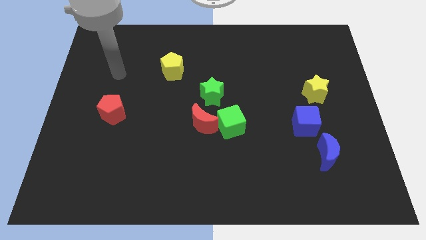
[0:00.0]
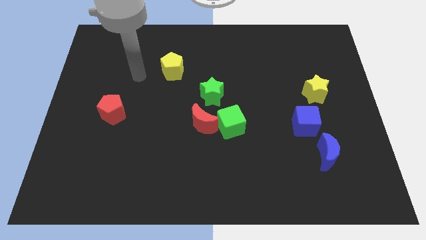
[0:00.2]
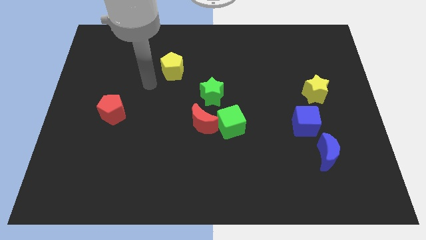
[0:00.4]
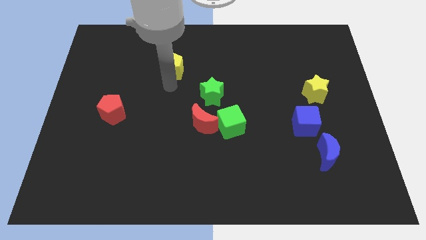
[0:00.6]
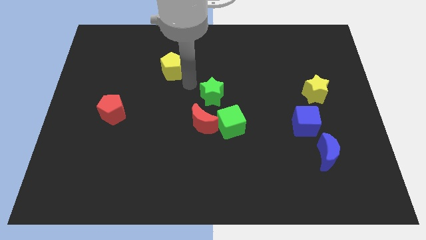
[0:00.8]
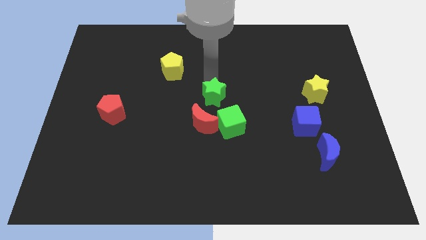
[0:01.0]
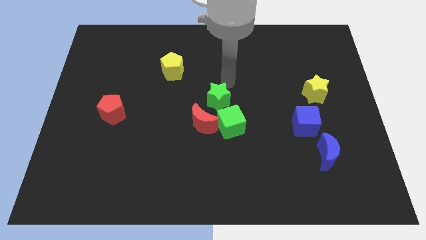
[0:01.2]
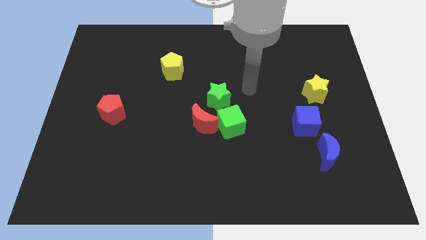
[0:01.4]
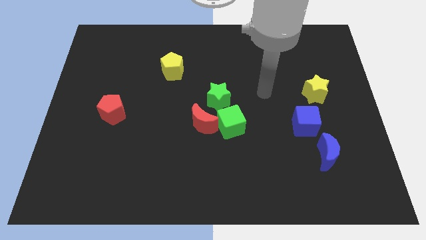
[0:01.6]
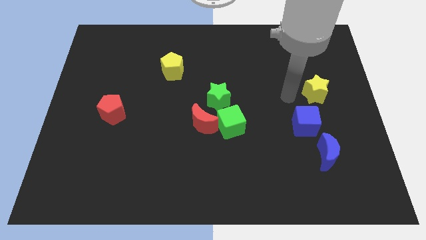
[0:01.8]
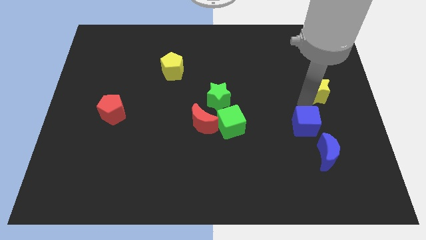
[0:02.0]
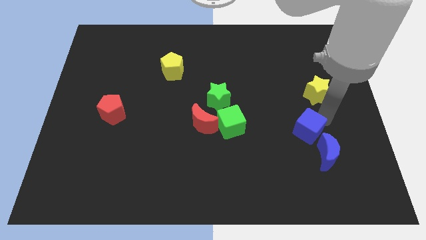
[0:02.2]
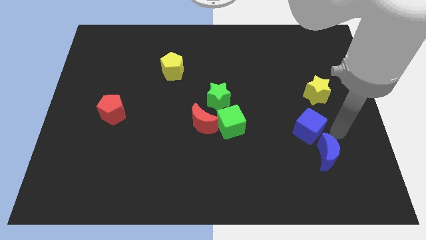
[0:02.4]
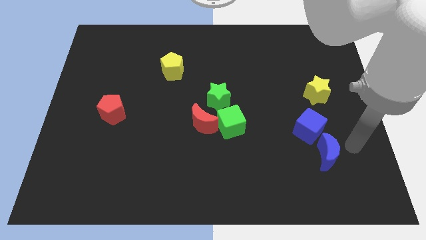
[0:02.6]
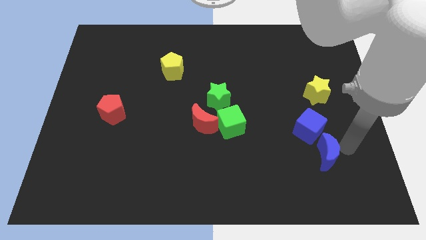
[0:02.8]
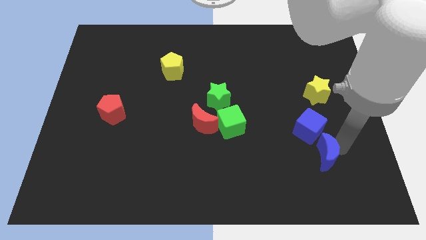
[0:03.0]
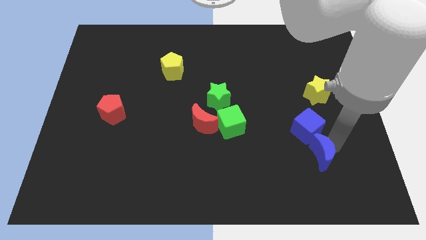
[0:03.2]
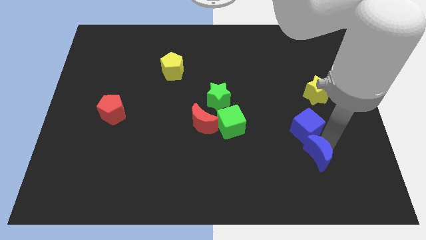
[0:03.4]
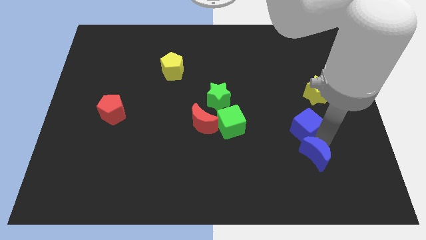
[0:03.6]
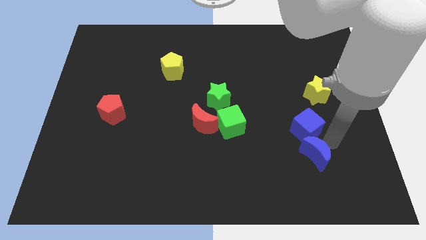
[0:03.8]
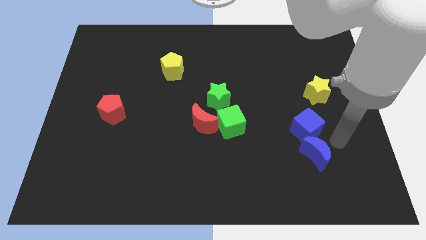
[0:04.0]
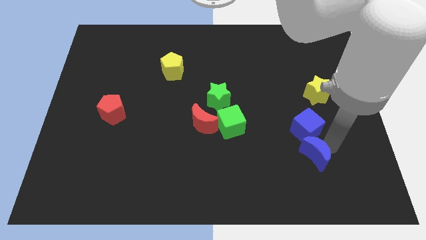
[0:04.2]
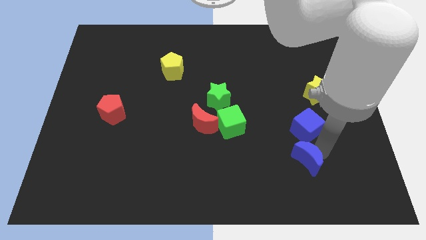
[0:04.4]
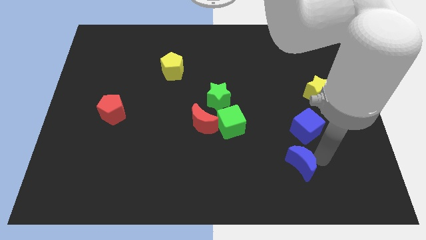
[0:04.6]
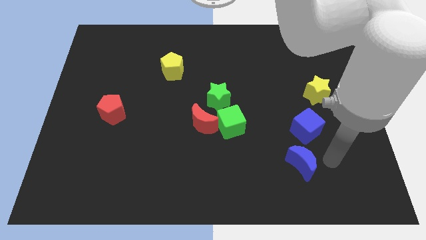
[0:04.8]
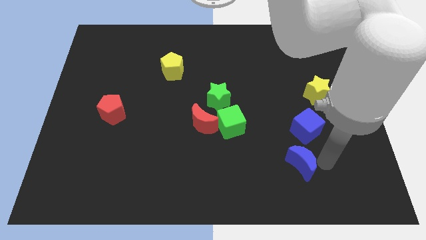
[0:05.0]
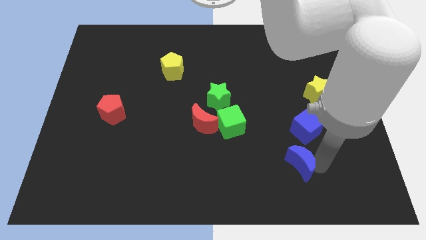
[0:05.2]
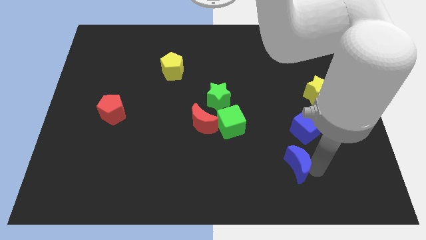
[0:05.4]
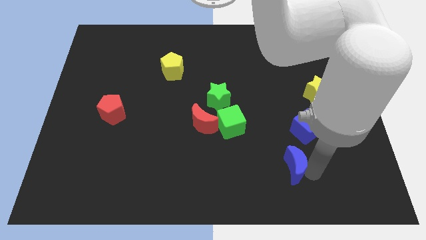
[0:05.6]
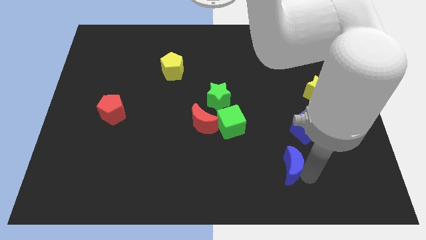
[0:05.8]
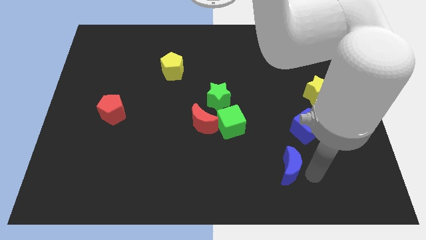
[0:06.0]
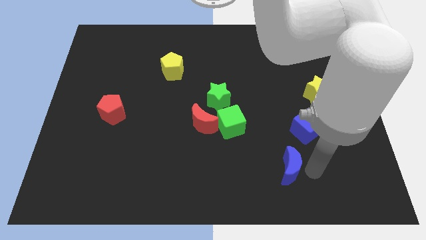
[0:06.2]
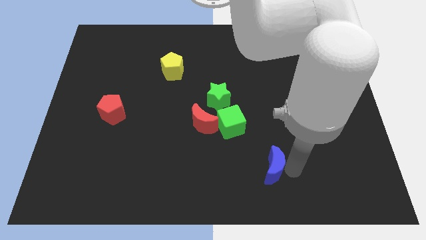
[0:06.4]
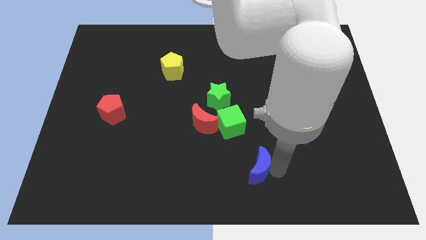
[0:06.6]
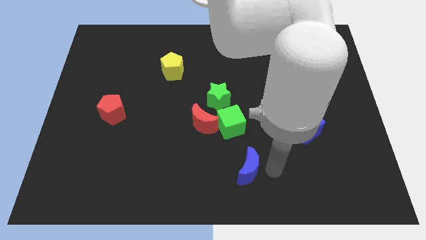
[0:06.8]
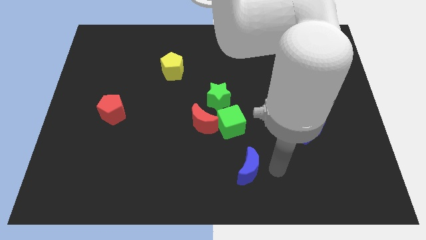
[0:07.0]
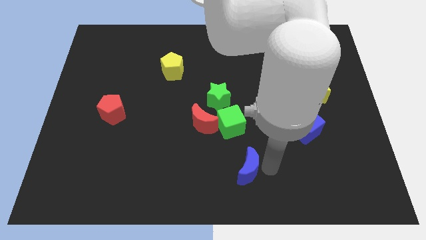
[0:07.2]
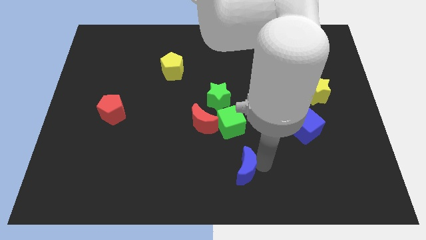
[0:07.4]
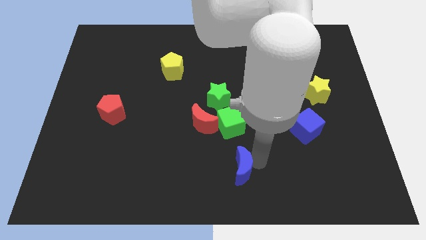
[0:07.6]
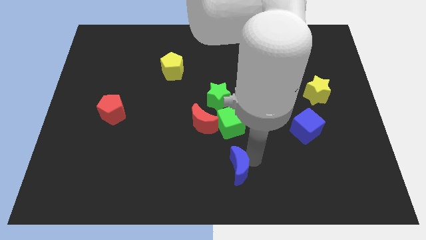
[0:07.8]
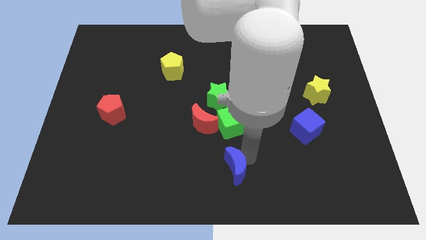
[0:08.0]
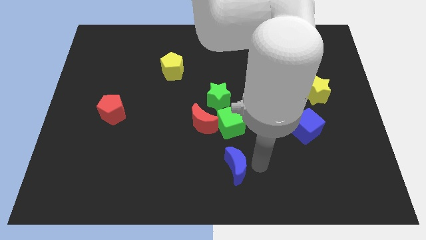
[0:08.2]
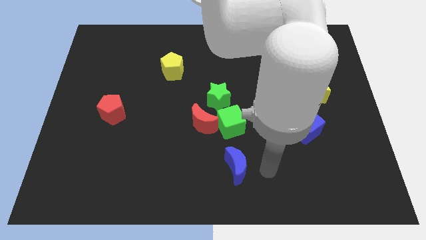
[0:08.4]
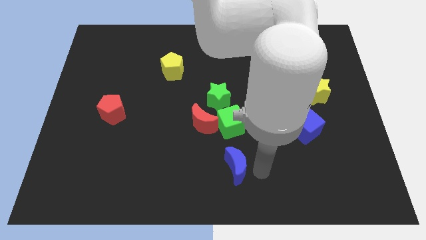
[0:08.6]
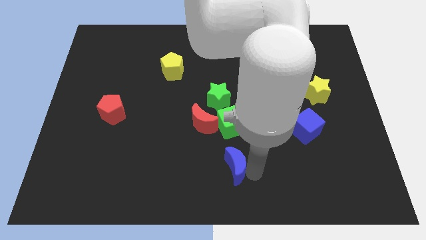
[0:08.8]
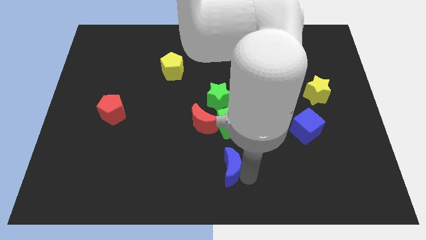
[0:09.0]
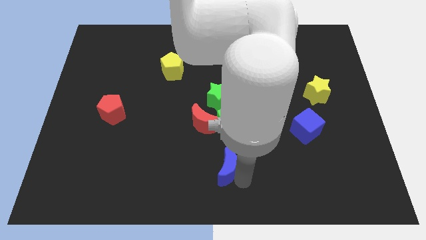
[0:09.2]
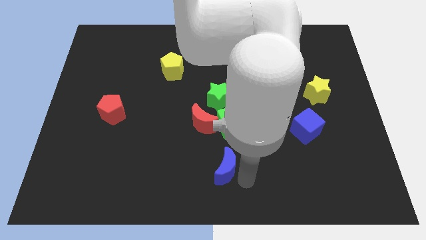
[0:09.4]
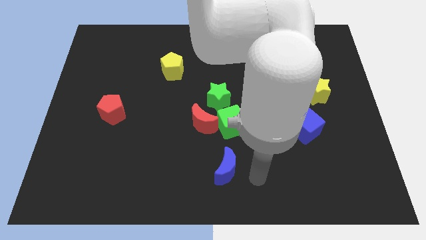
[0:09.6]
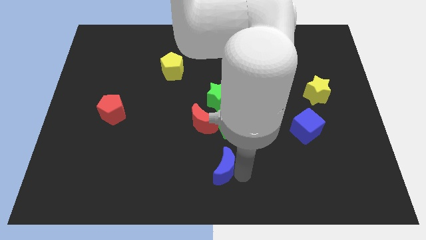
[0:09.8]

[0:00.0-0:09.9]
push the blue moon to the bottom of the red moon

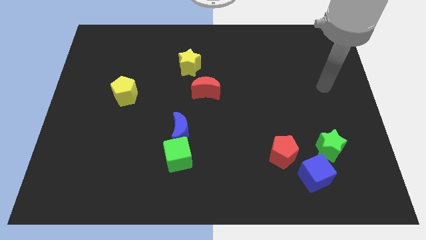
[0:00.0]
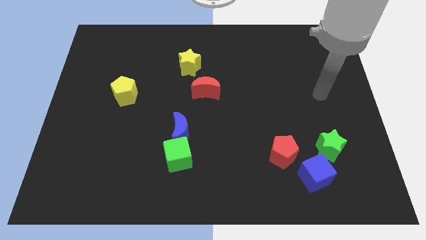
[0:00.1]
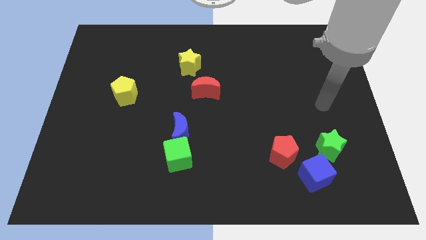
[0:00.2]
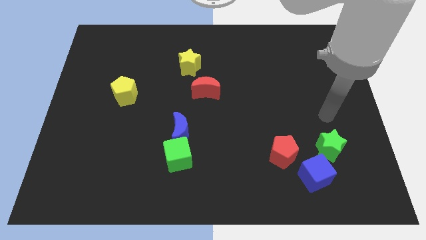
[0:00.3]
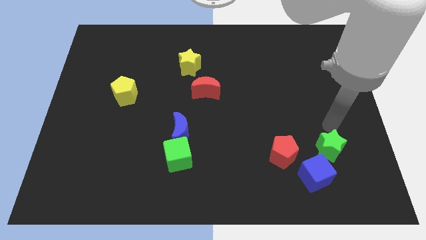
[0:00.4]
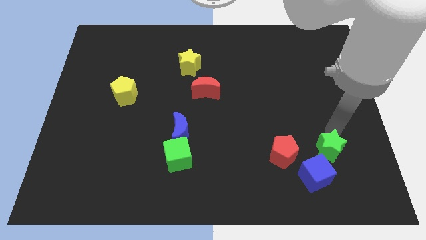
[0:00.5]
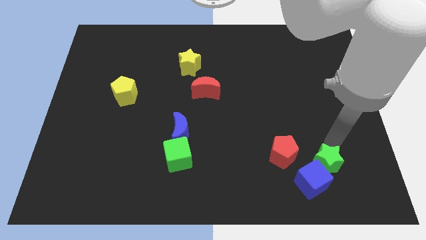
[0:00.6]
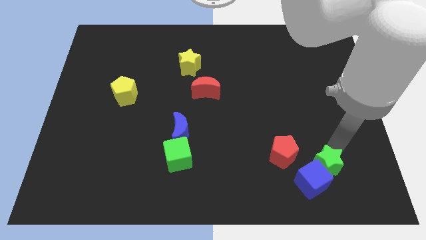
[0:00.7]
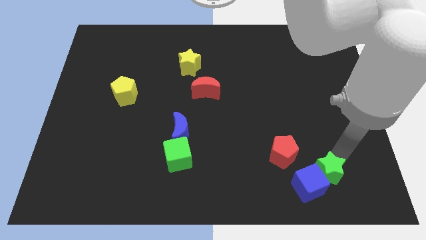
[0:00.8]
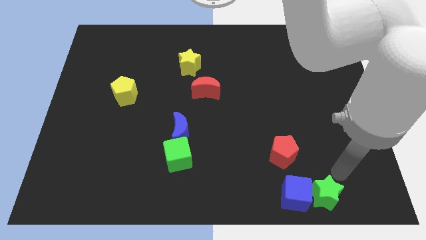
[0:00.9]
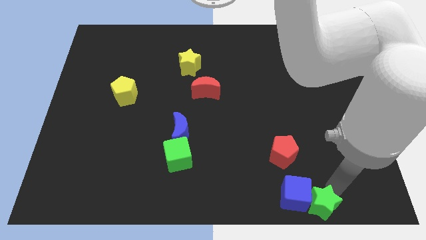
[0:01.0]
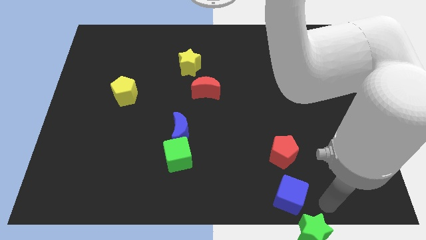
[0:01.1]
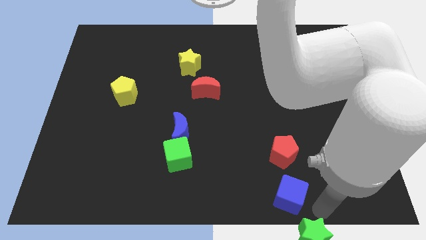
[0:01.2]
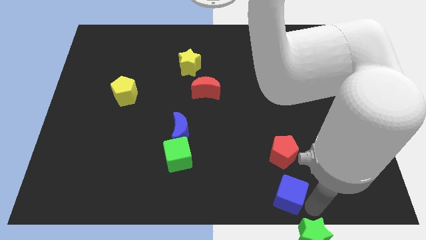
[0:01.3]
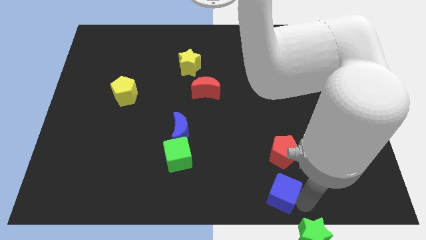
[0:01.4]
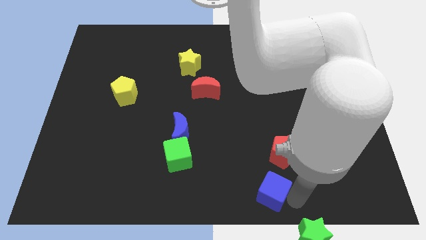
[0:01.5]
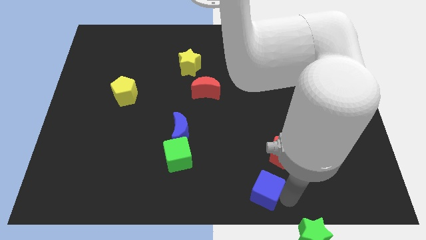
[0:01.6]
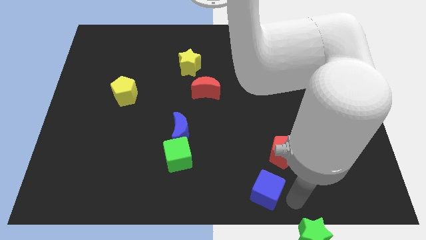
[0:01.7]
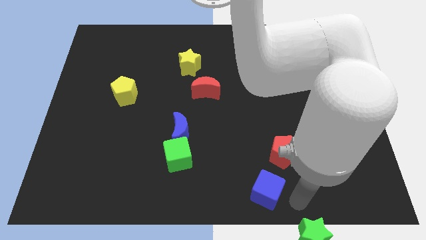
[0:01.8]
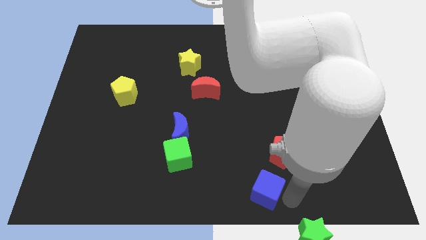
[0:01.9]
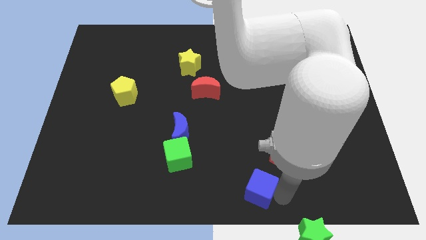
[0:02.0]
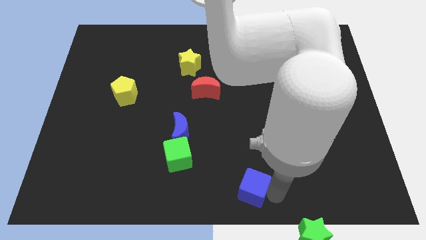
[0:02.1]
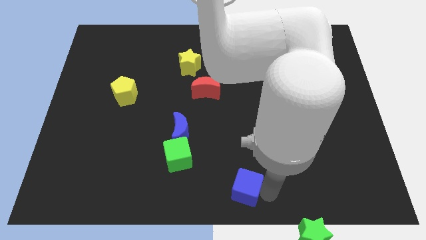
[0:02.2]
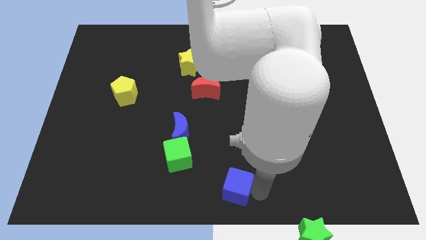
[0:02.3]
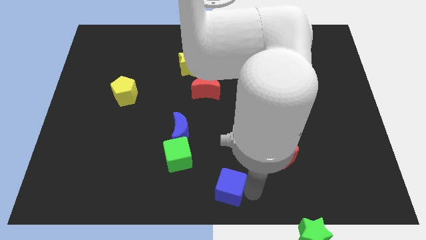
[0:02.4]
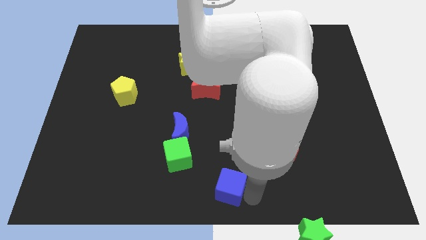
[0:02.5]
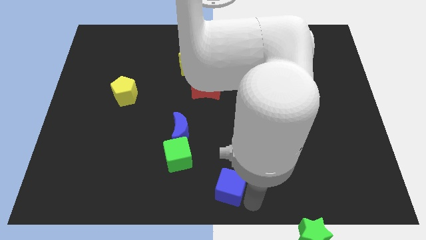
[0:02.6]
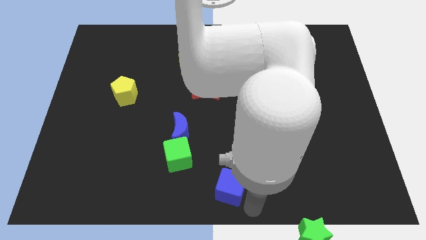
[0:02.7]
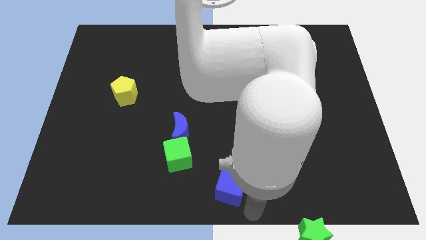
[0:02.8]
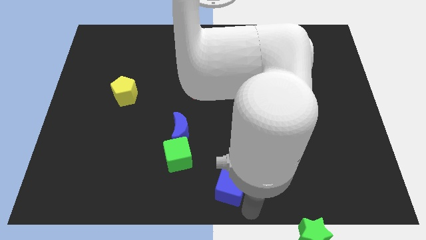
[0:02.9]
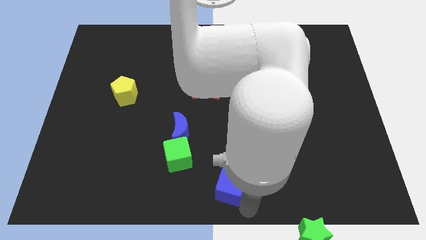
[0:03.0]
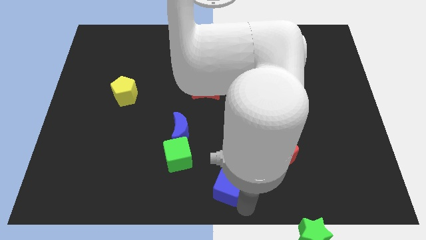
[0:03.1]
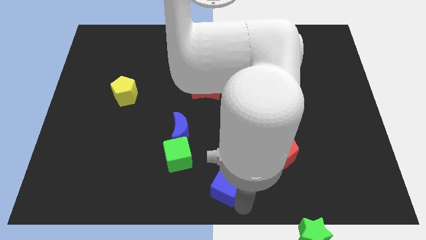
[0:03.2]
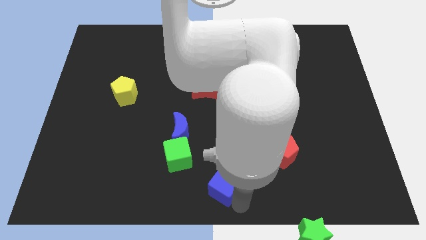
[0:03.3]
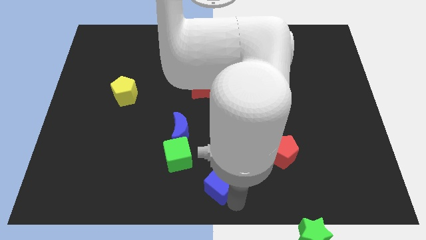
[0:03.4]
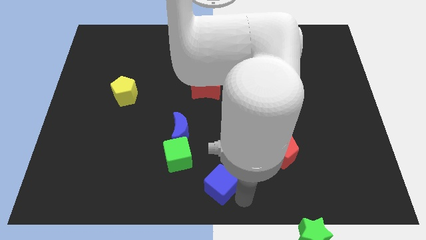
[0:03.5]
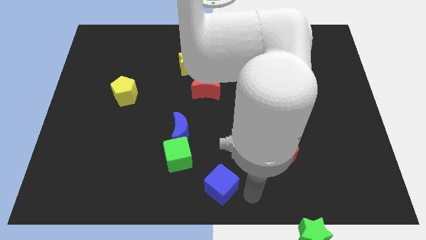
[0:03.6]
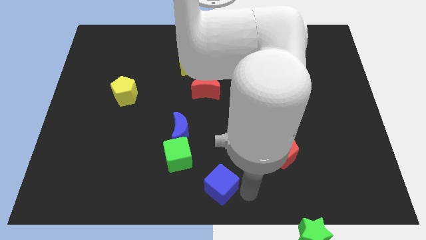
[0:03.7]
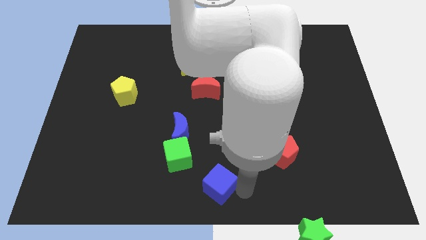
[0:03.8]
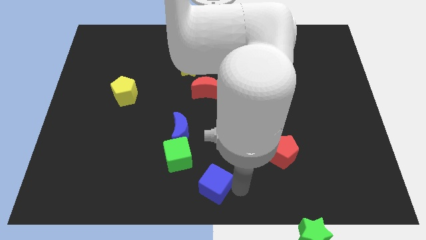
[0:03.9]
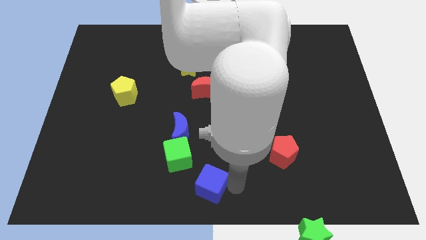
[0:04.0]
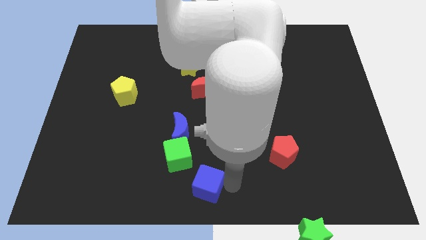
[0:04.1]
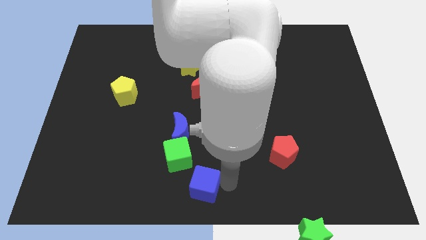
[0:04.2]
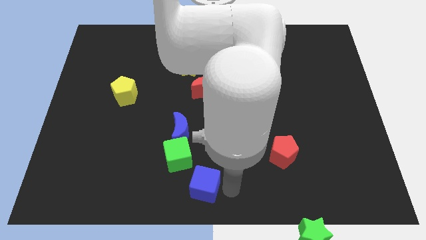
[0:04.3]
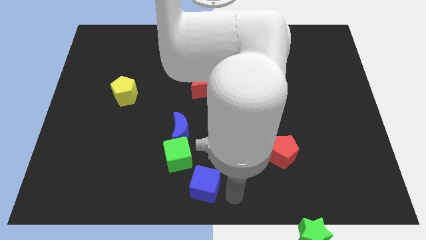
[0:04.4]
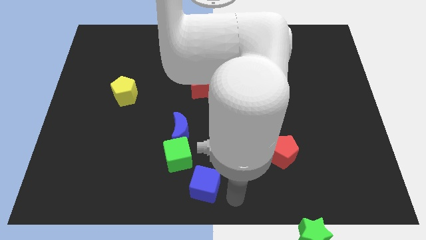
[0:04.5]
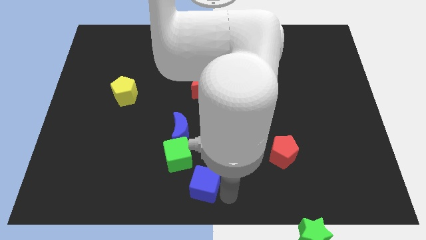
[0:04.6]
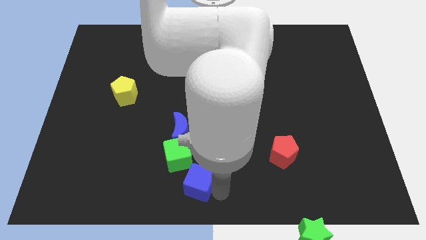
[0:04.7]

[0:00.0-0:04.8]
move the blue cube to the bottom of the blue moon
